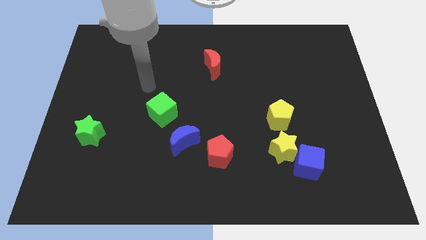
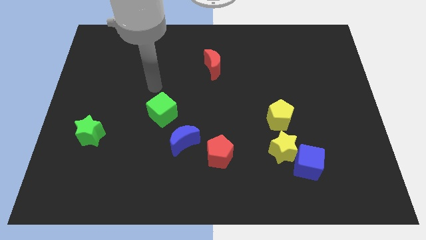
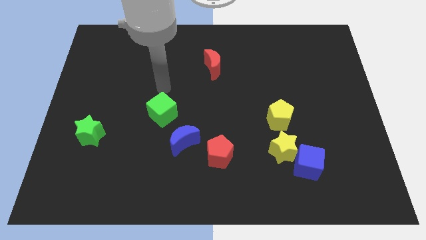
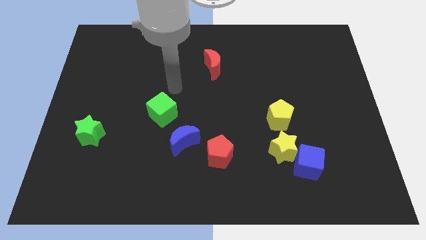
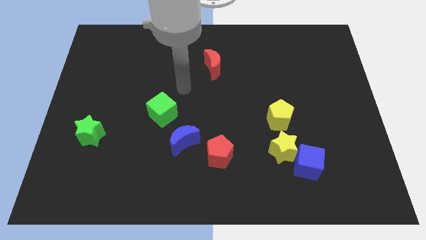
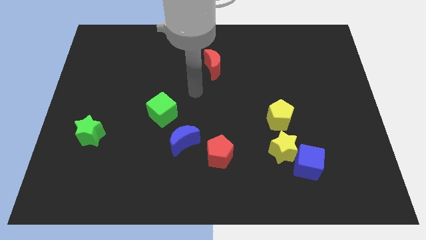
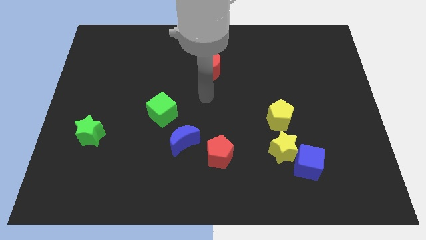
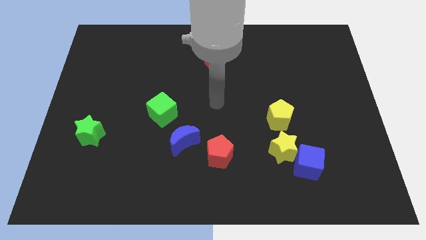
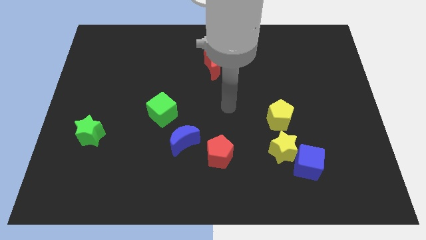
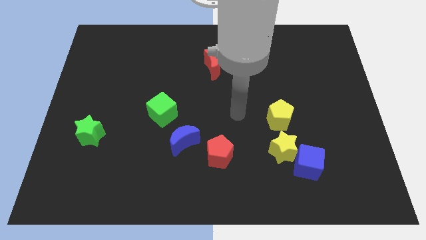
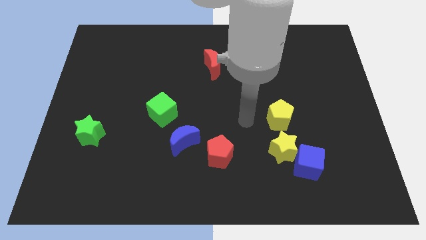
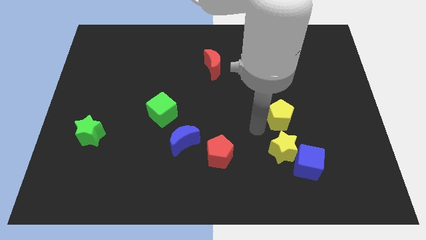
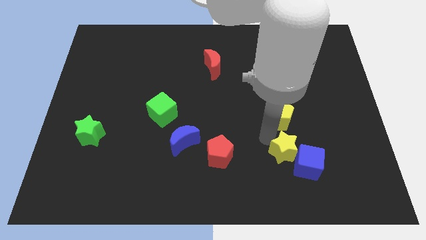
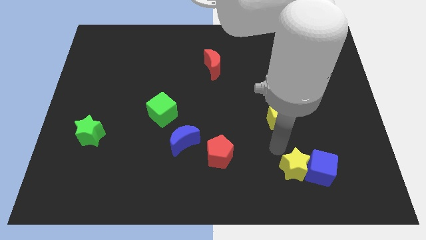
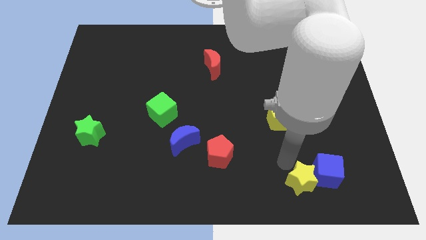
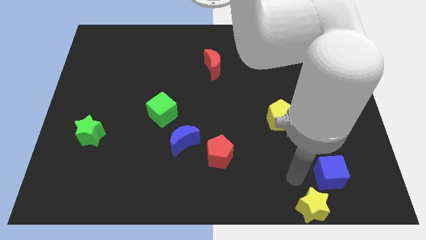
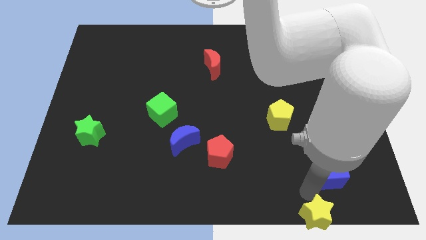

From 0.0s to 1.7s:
separate the blue cube from the yellow star

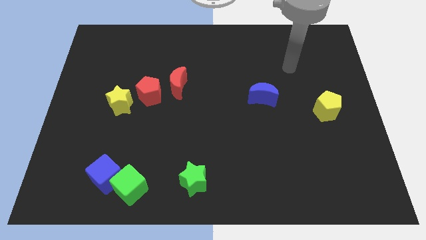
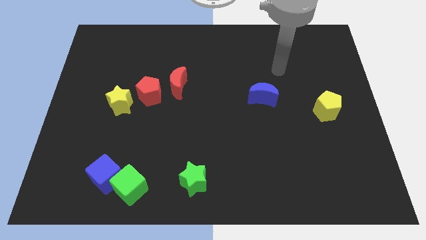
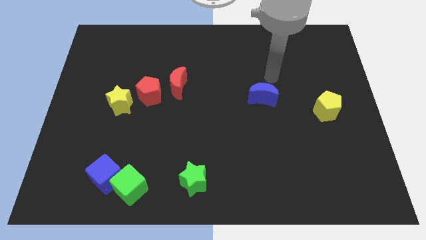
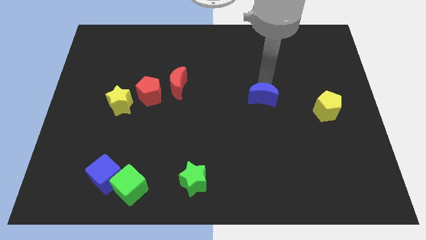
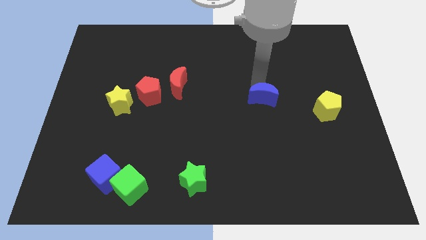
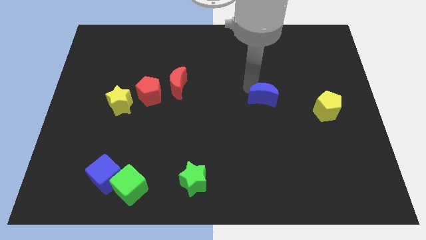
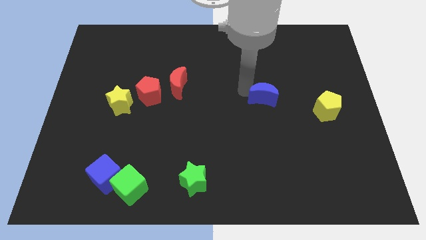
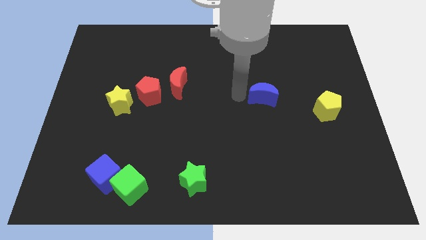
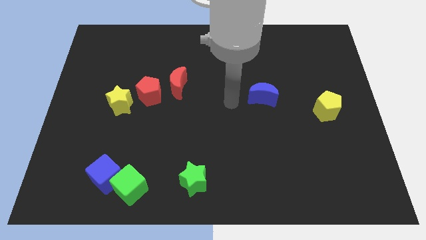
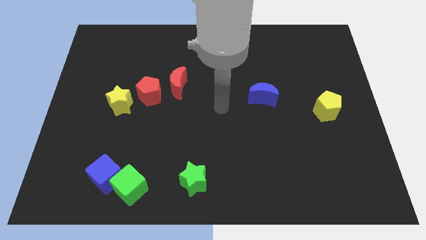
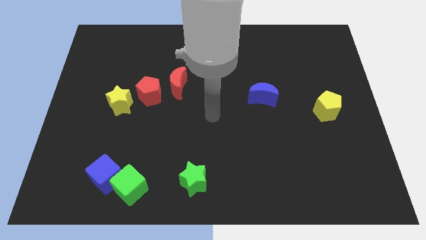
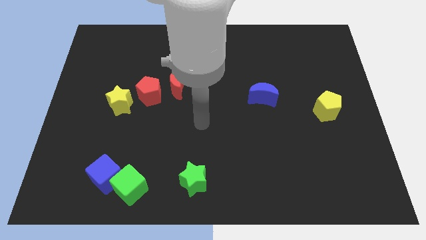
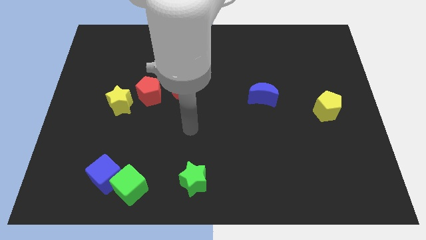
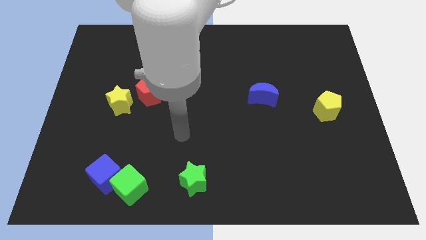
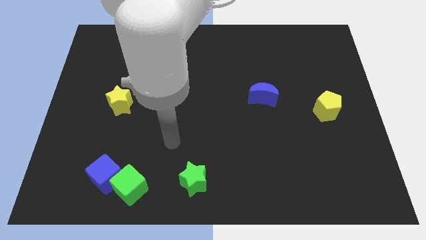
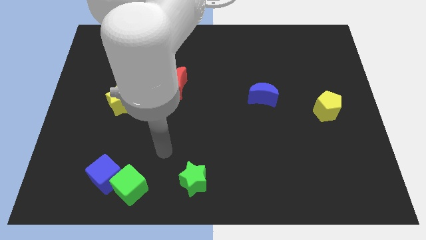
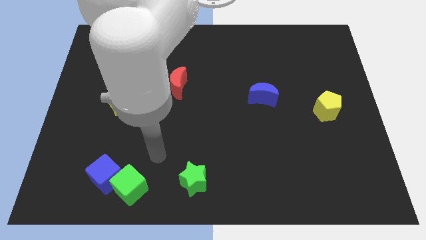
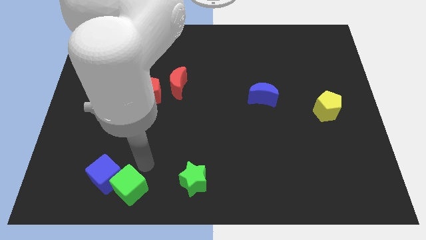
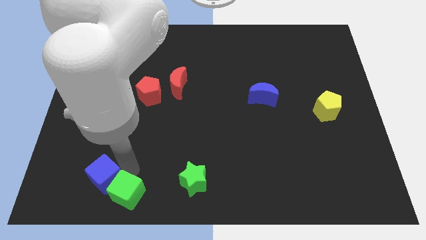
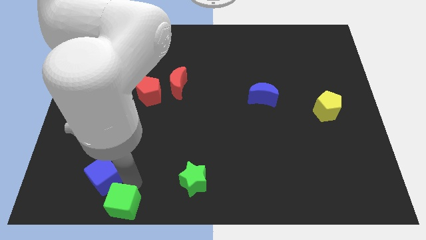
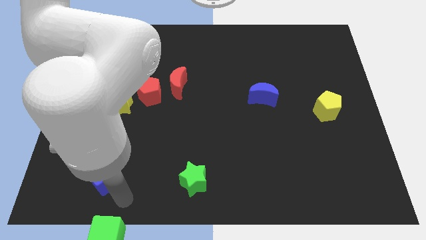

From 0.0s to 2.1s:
pull the blue cube apart from the green cube

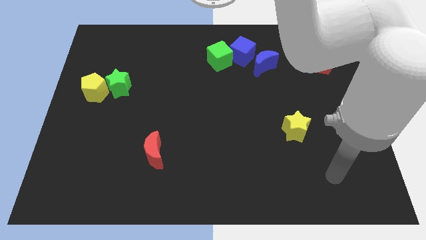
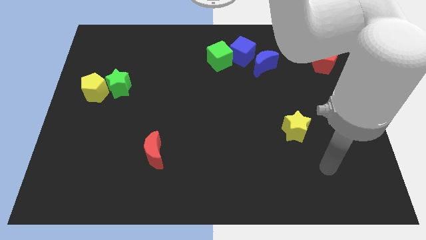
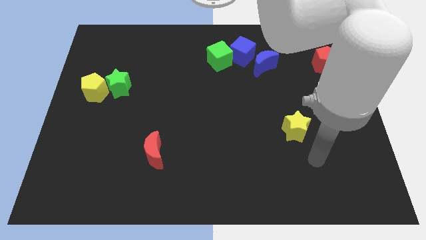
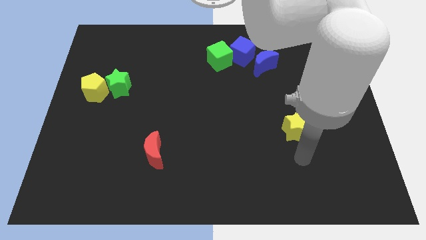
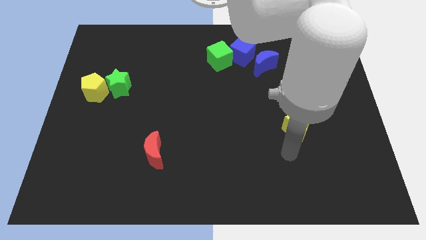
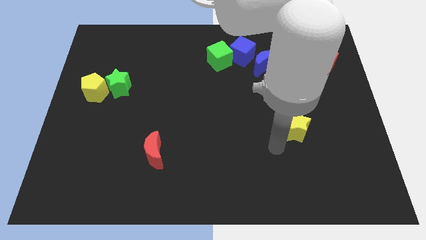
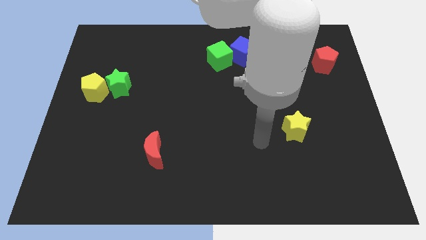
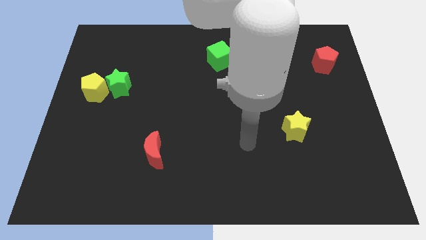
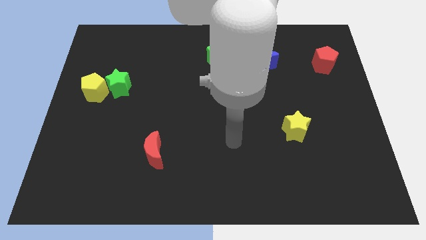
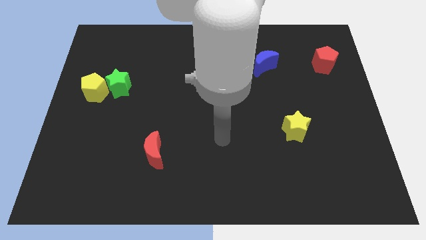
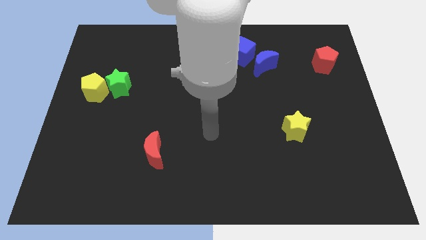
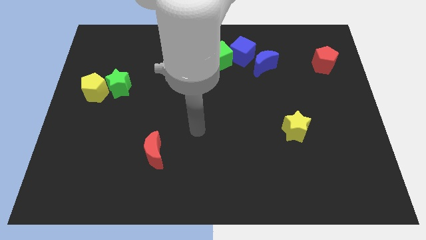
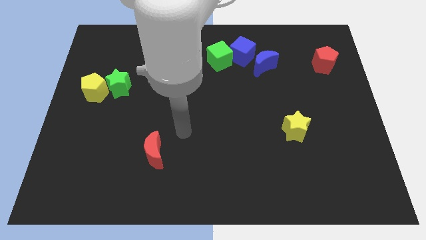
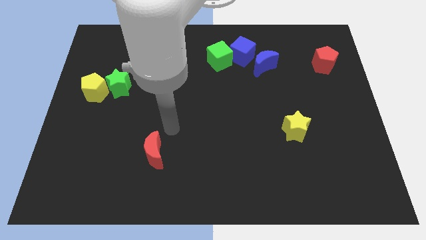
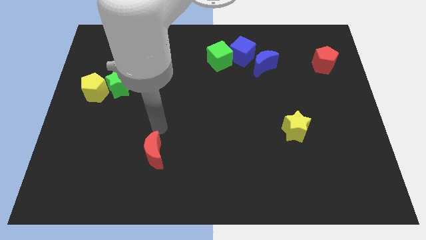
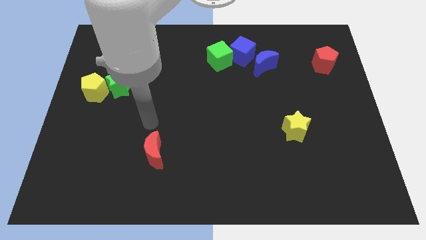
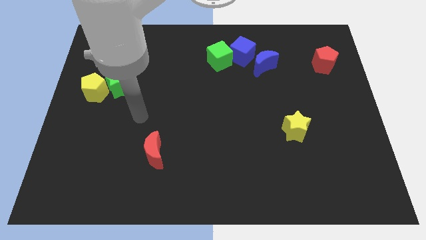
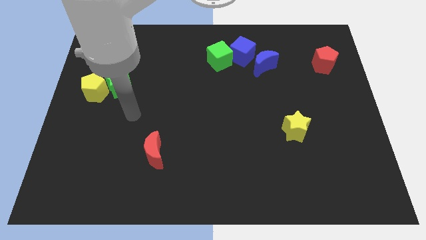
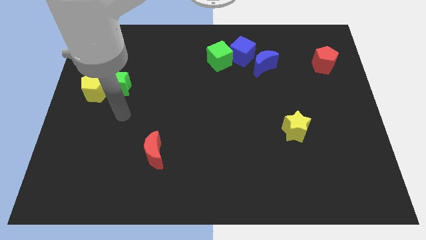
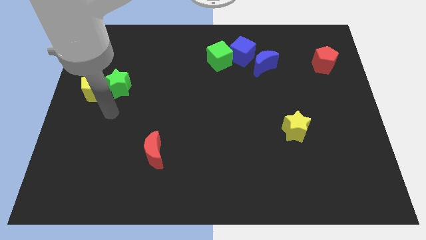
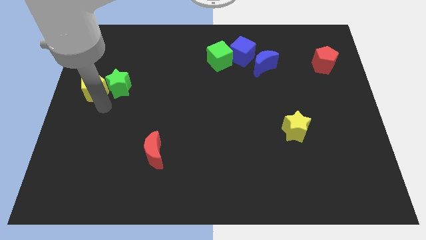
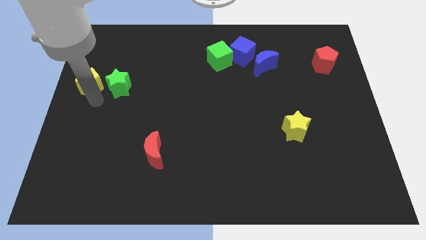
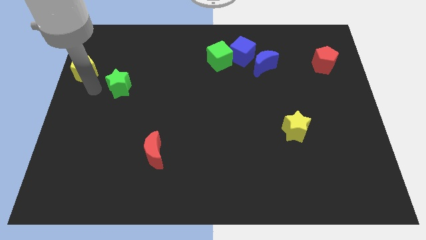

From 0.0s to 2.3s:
separate the green star from the yellow pentagon

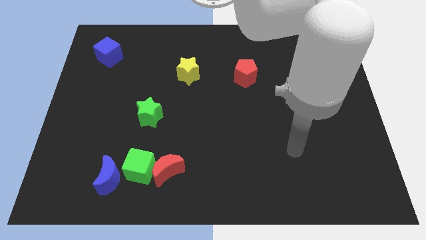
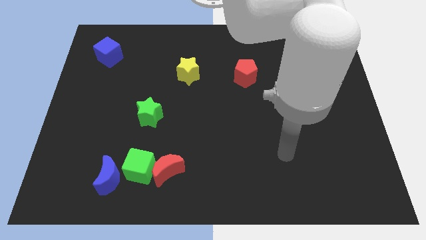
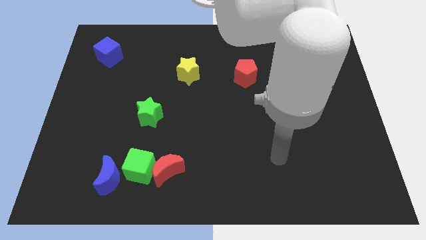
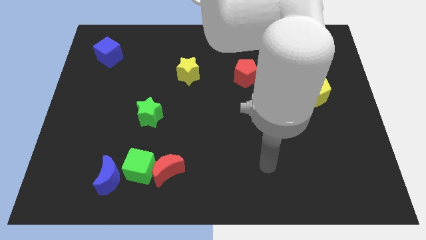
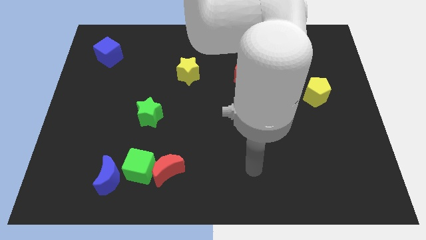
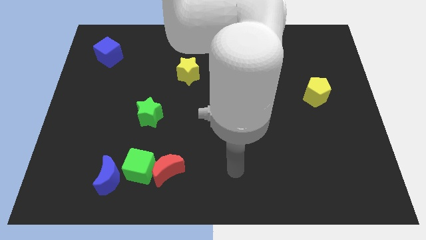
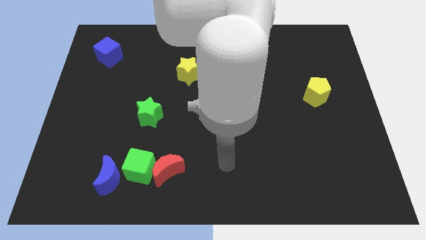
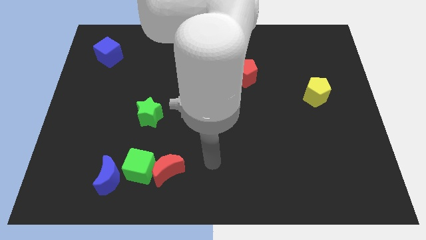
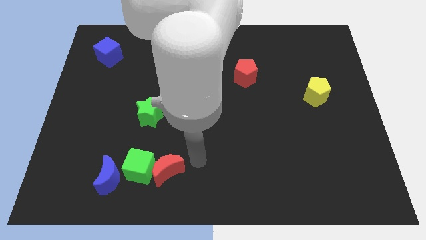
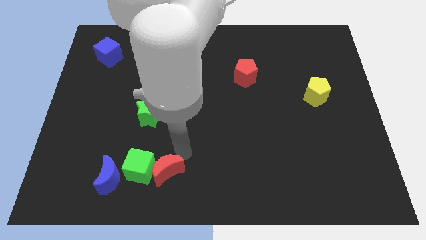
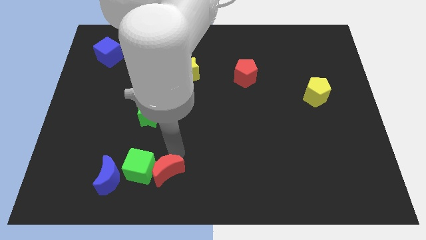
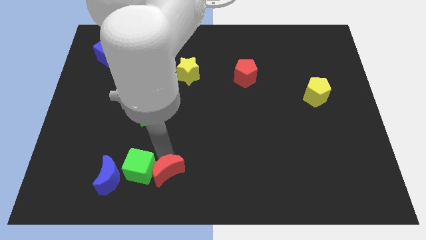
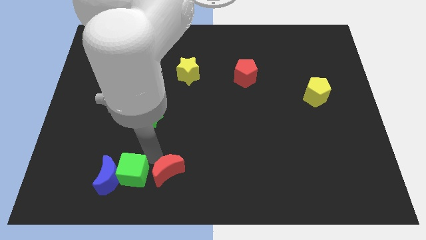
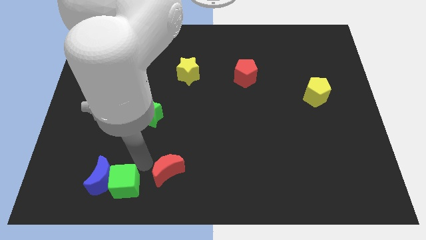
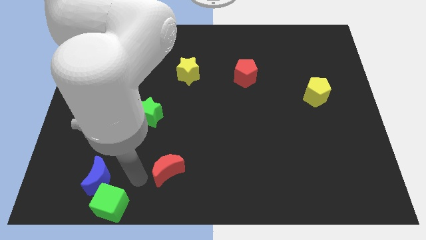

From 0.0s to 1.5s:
move the red moon away from the green cube

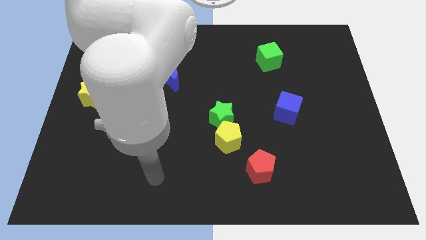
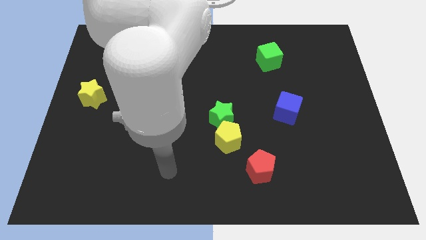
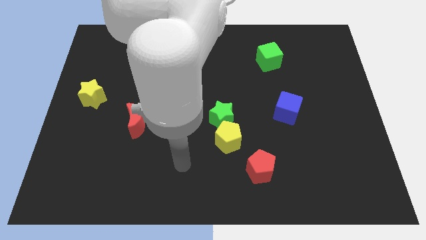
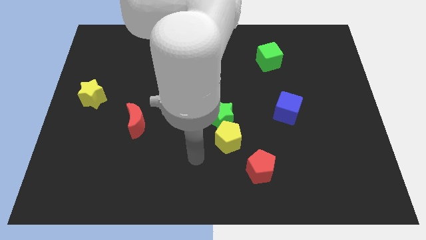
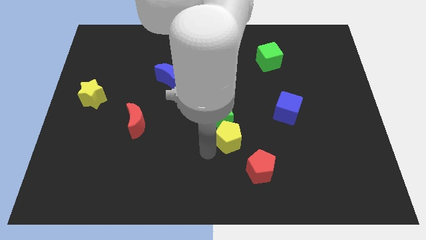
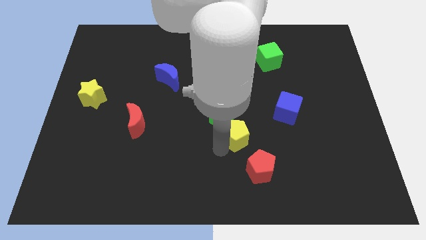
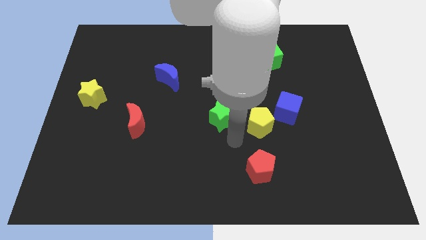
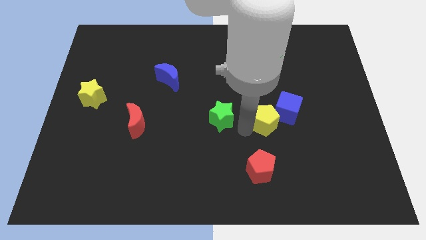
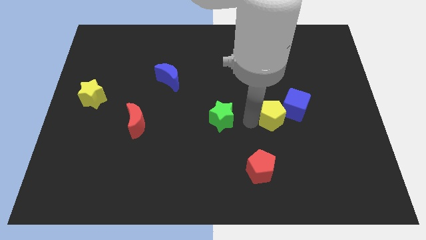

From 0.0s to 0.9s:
move the green star away from the yellow pentagon

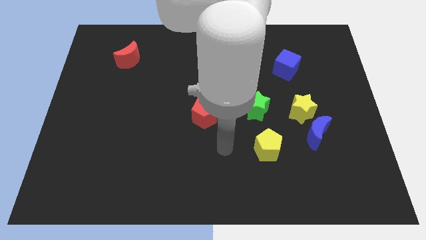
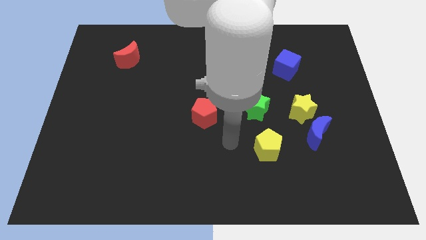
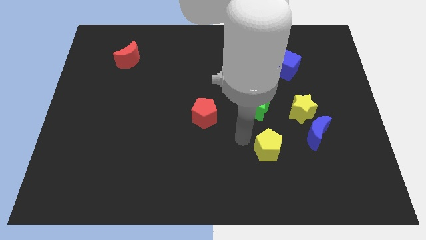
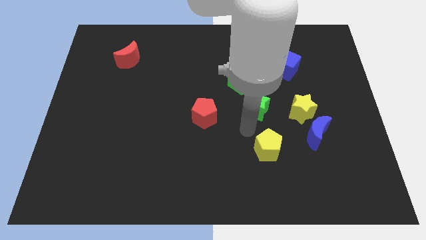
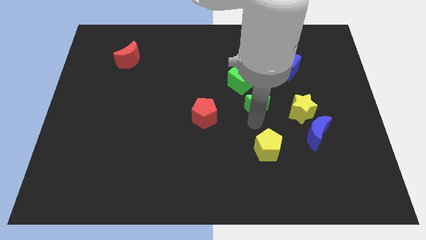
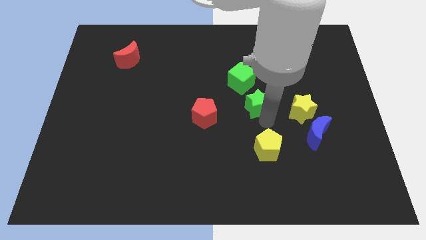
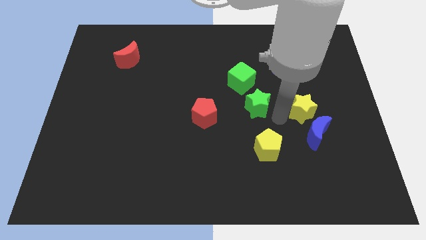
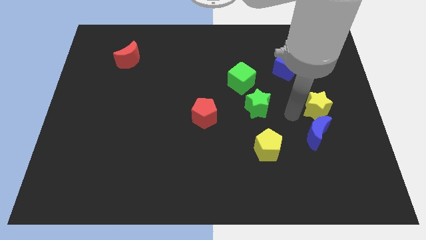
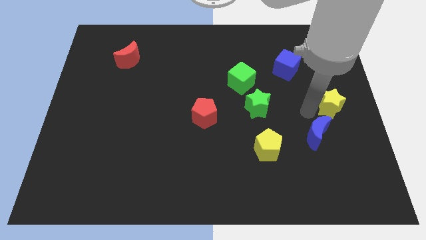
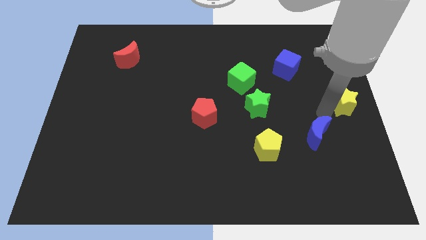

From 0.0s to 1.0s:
separate the blue moon from the yellow star
